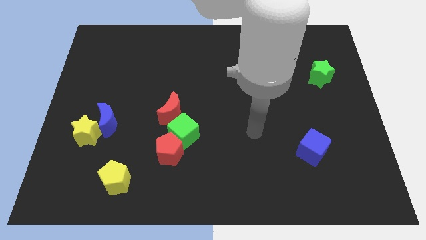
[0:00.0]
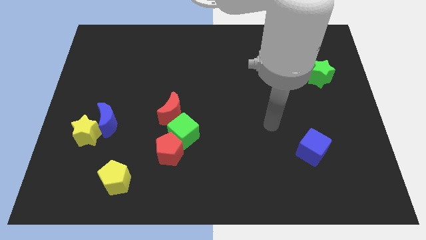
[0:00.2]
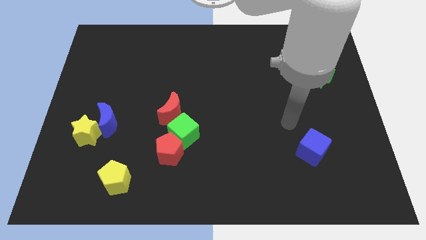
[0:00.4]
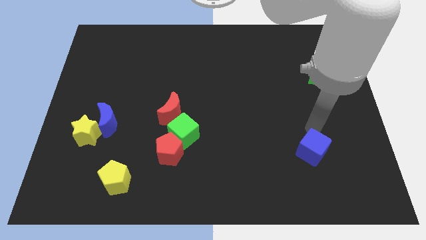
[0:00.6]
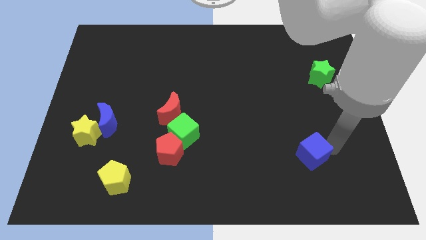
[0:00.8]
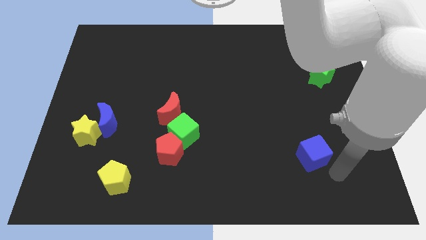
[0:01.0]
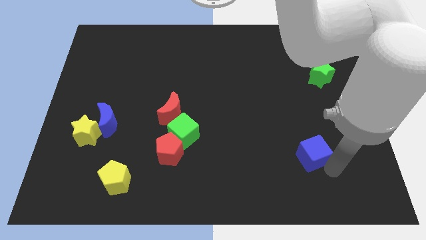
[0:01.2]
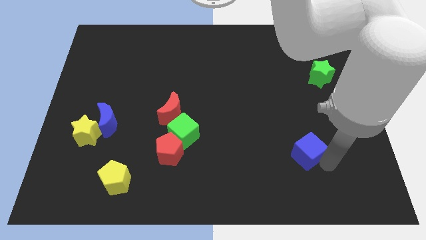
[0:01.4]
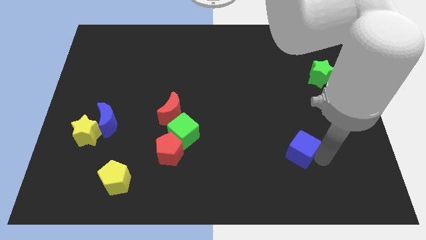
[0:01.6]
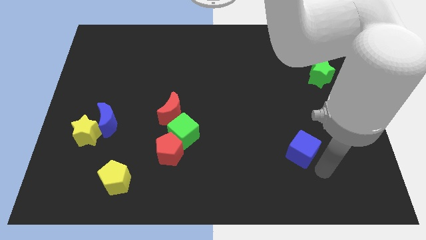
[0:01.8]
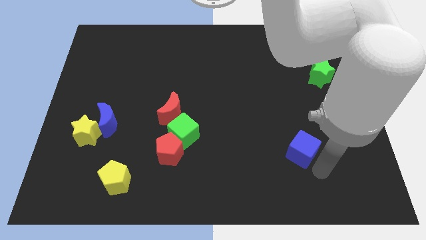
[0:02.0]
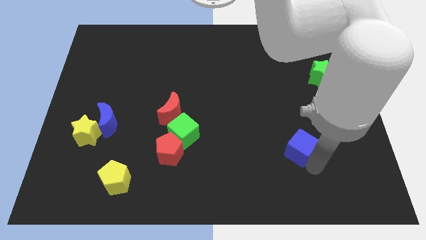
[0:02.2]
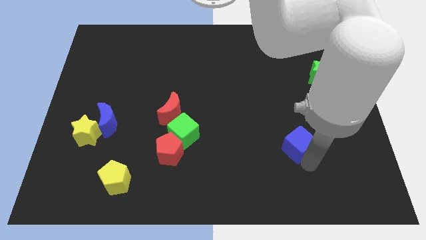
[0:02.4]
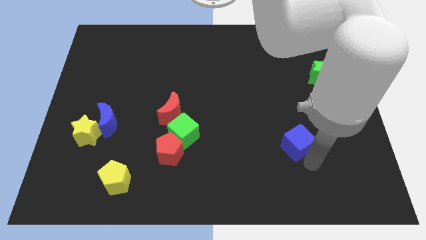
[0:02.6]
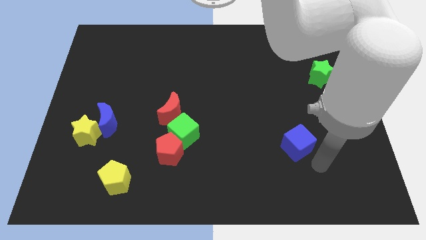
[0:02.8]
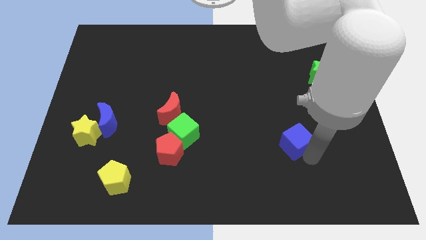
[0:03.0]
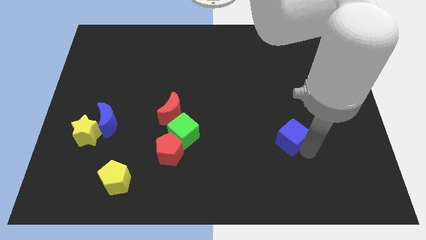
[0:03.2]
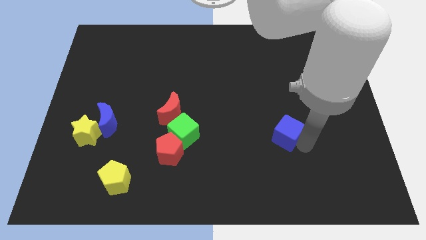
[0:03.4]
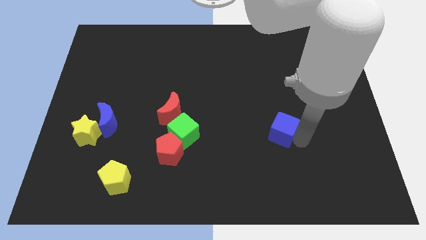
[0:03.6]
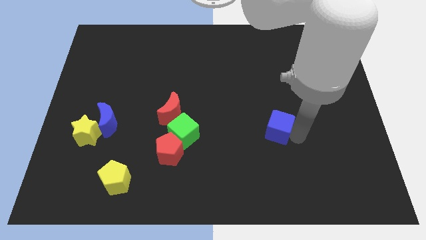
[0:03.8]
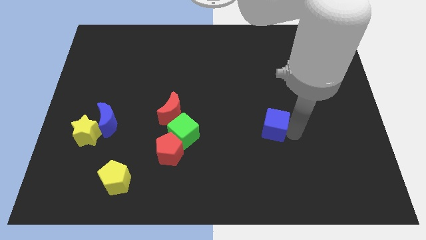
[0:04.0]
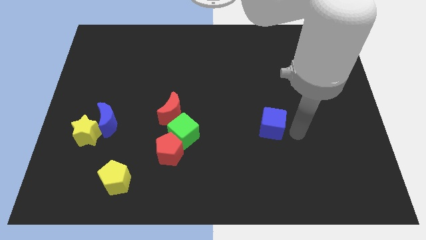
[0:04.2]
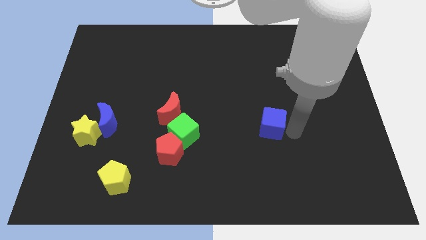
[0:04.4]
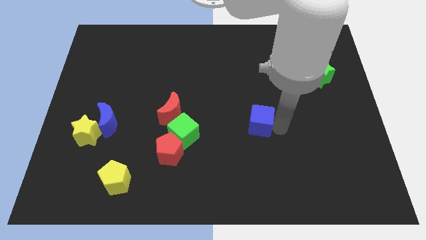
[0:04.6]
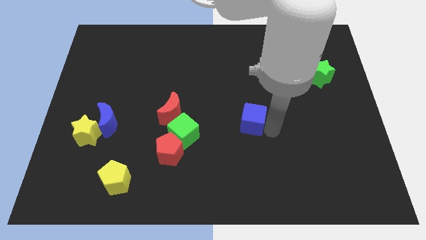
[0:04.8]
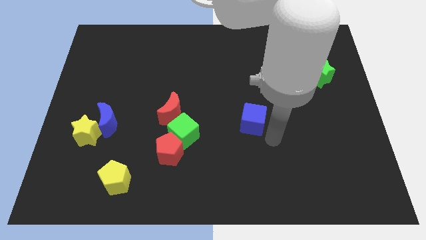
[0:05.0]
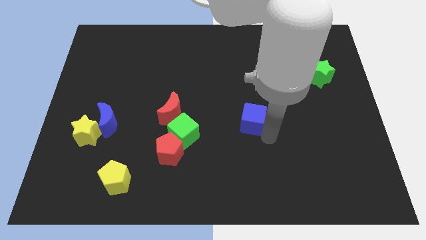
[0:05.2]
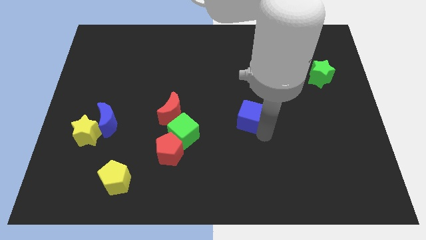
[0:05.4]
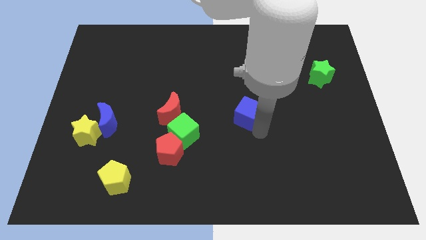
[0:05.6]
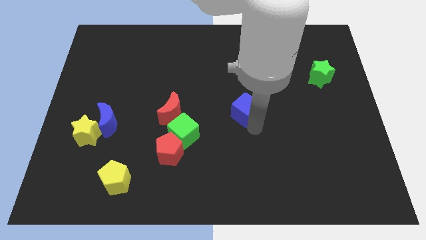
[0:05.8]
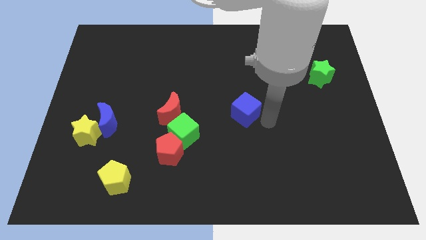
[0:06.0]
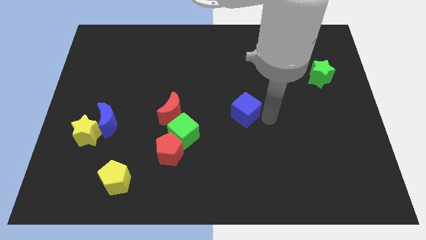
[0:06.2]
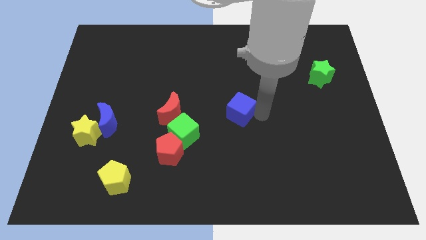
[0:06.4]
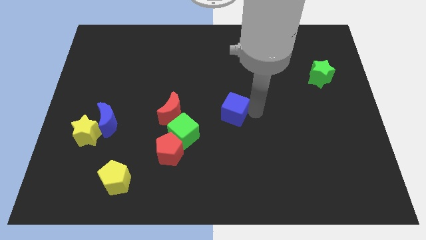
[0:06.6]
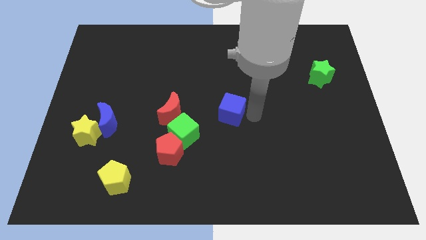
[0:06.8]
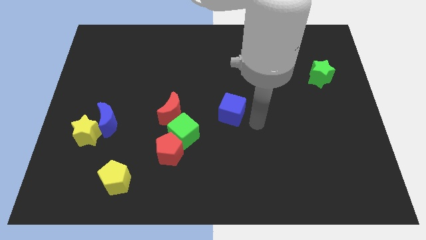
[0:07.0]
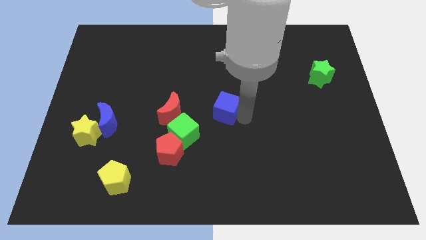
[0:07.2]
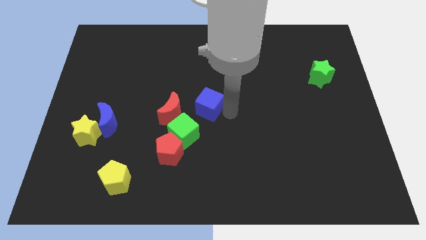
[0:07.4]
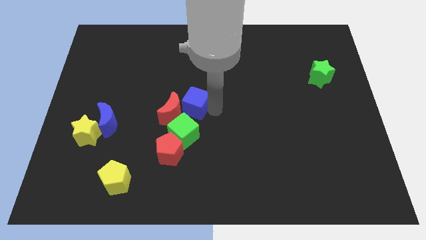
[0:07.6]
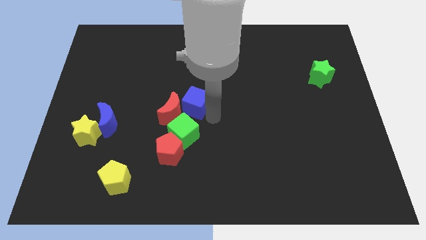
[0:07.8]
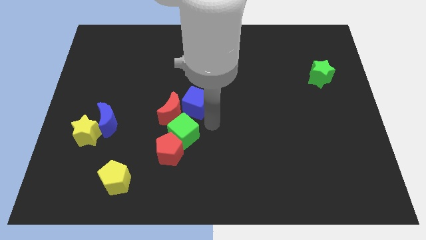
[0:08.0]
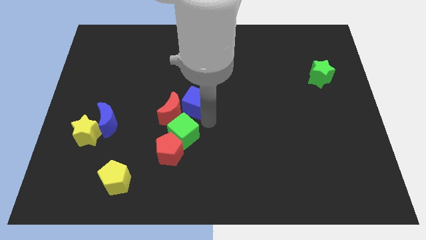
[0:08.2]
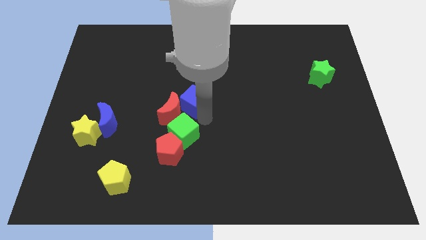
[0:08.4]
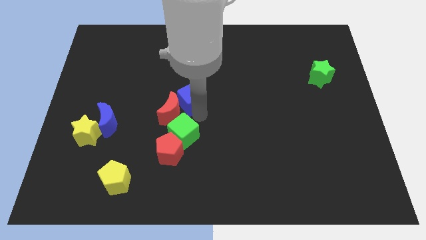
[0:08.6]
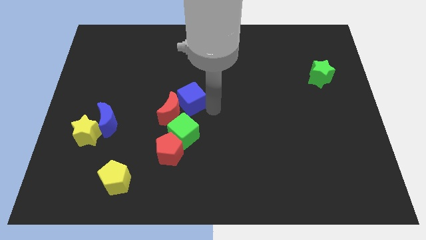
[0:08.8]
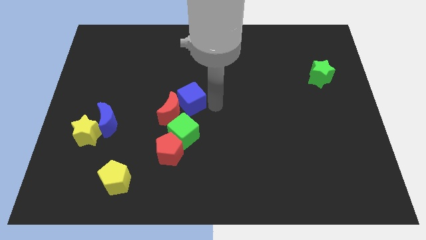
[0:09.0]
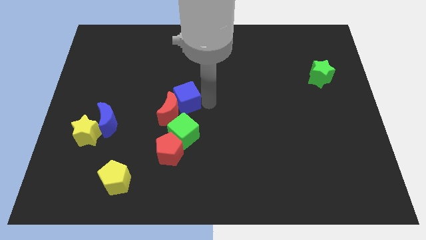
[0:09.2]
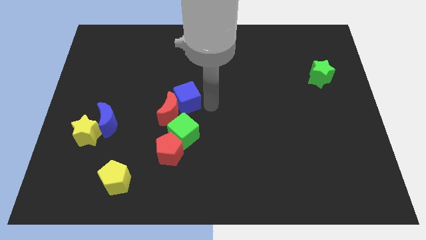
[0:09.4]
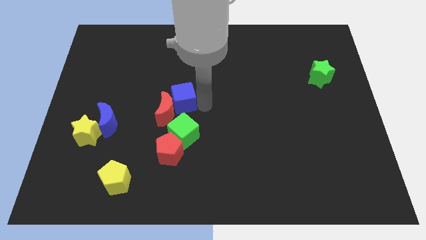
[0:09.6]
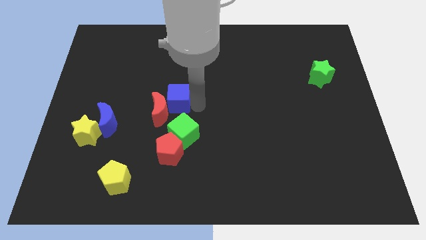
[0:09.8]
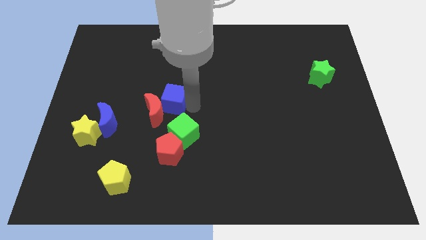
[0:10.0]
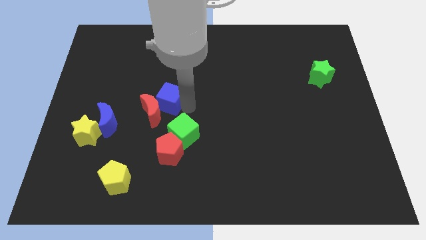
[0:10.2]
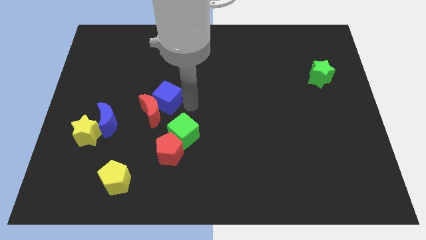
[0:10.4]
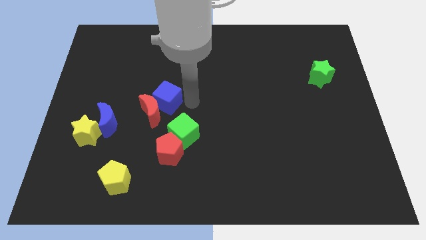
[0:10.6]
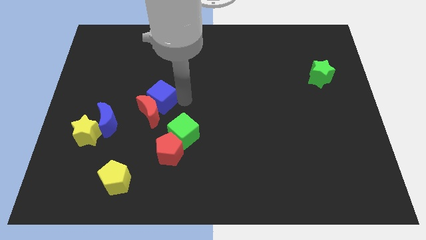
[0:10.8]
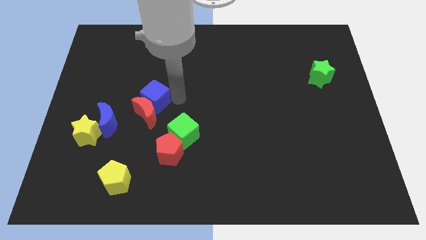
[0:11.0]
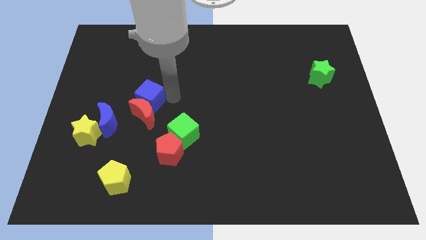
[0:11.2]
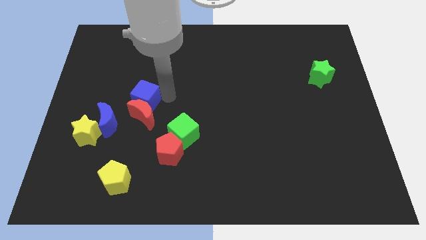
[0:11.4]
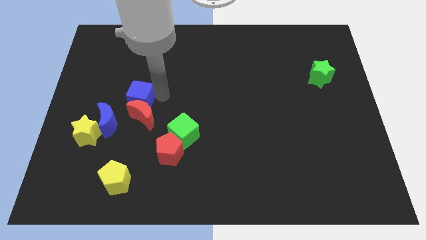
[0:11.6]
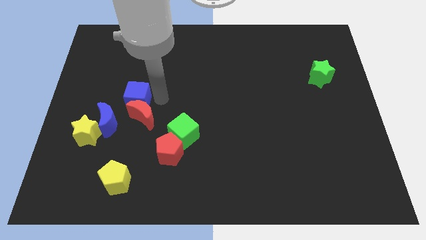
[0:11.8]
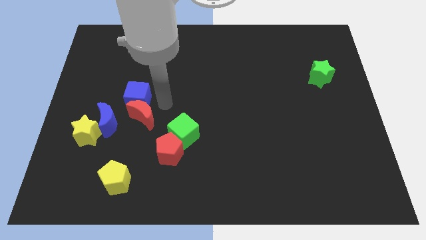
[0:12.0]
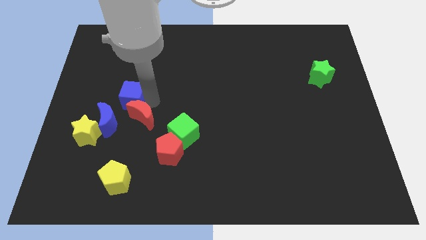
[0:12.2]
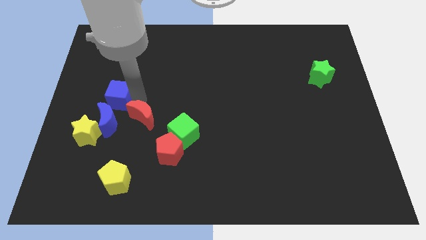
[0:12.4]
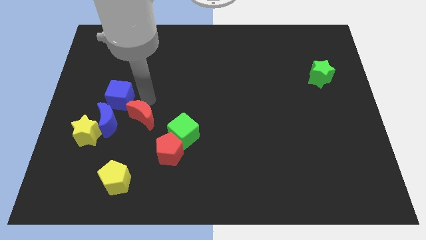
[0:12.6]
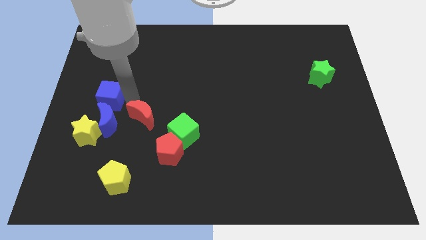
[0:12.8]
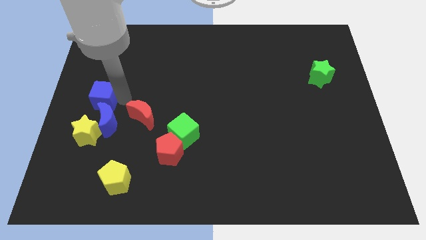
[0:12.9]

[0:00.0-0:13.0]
put the blue cube to the left side of the board
